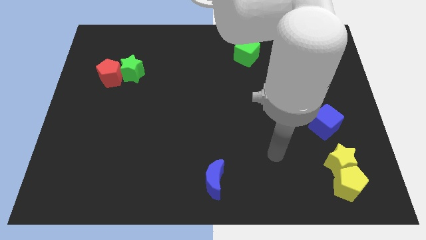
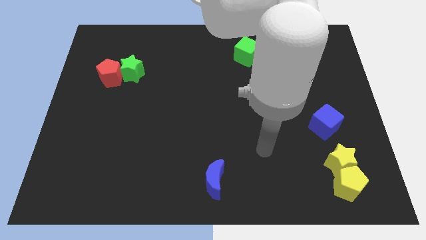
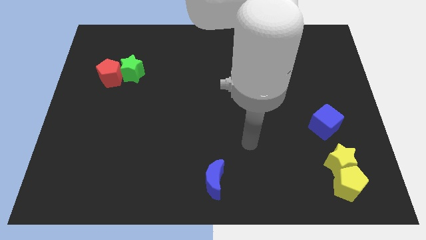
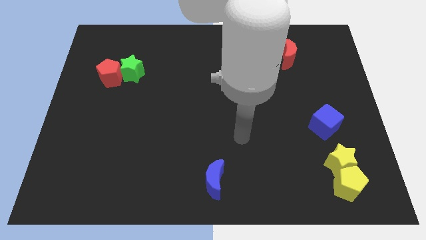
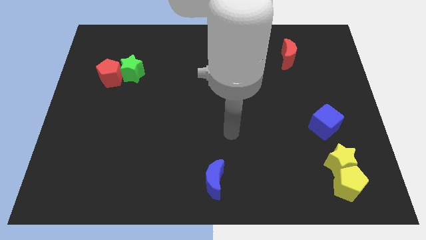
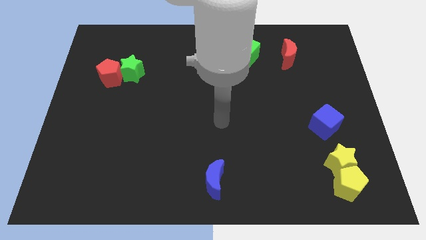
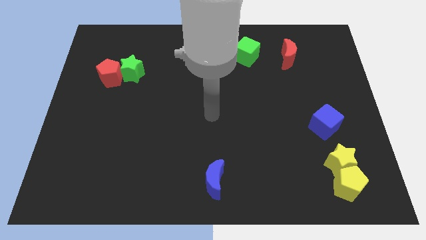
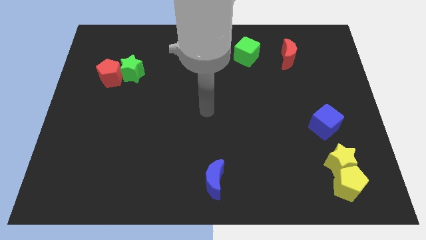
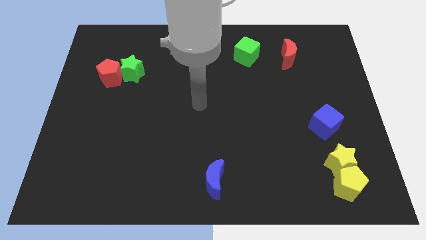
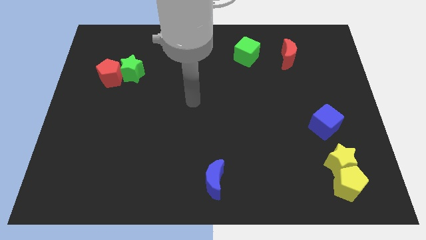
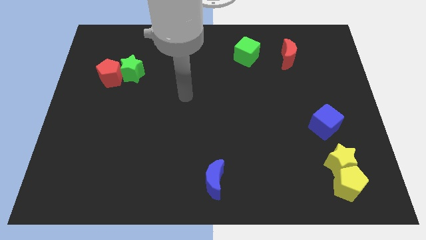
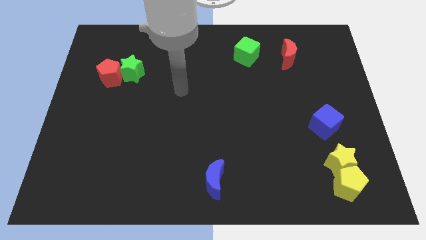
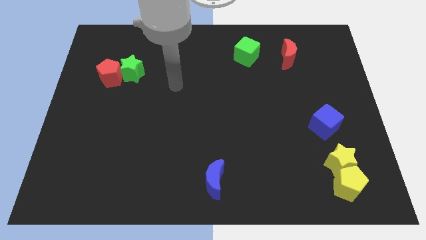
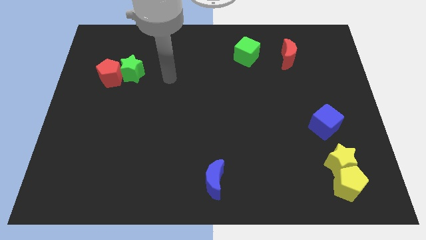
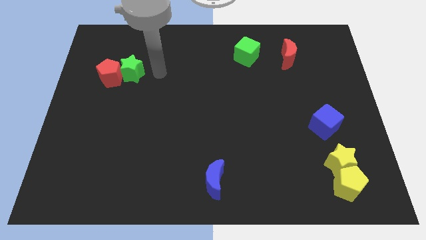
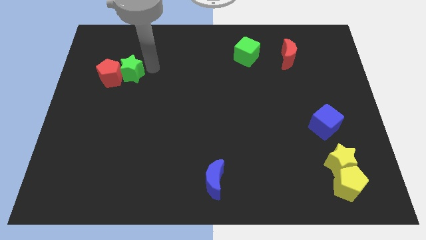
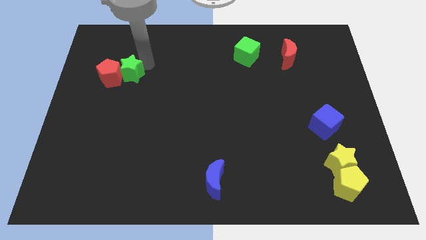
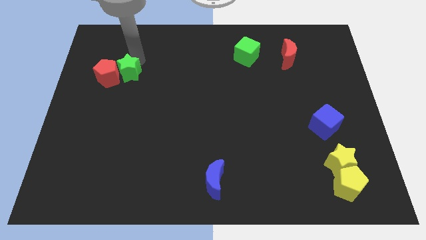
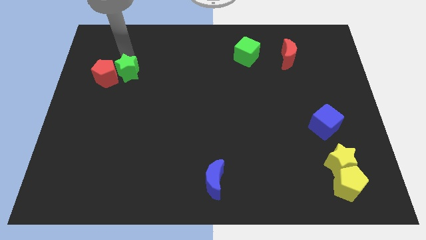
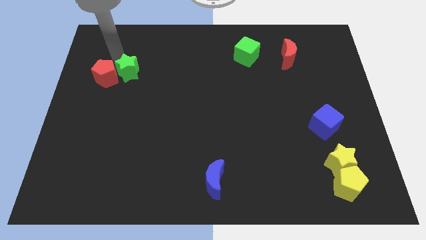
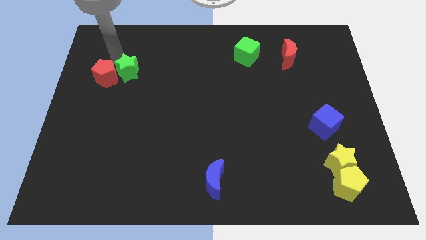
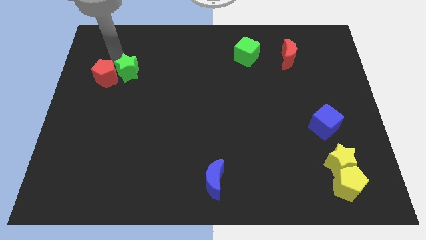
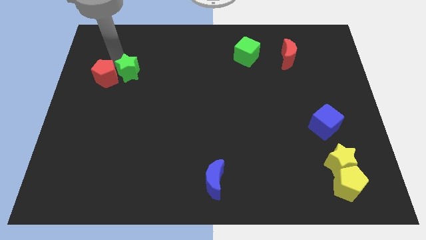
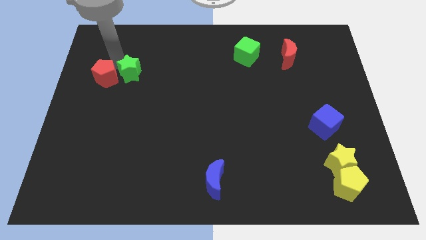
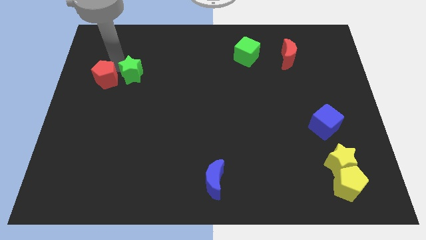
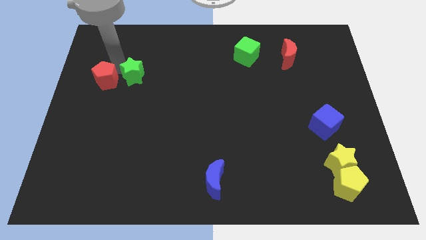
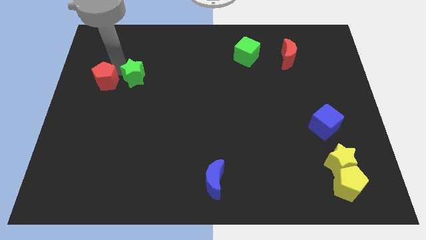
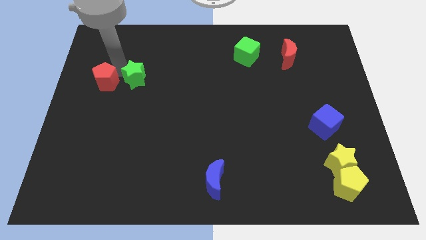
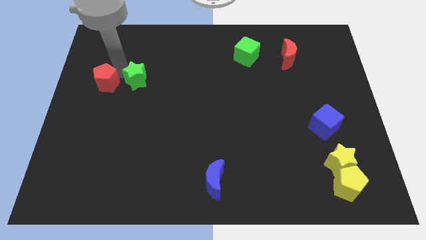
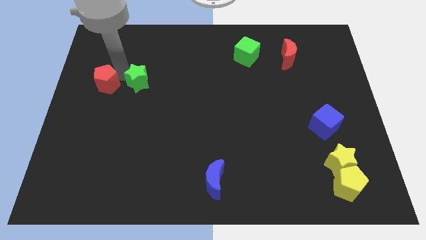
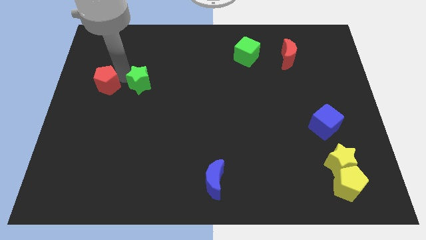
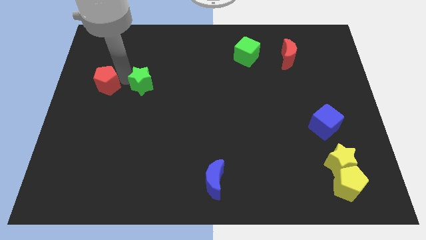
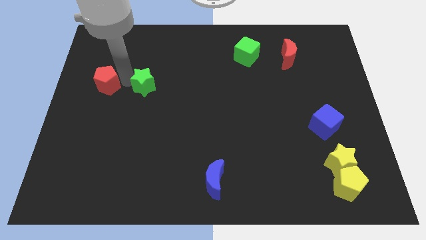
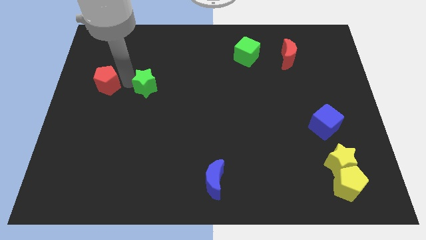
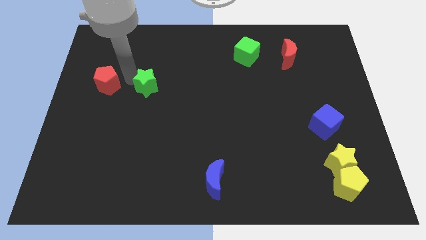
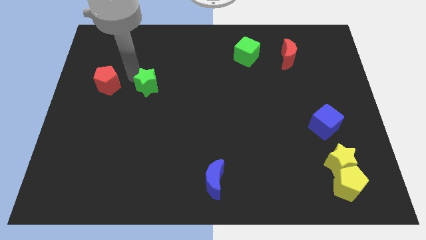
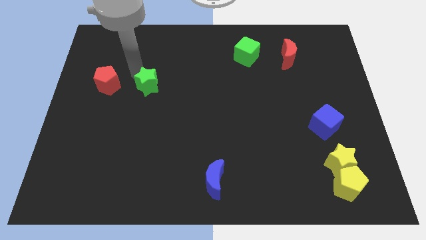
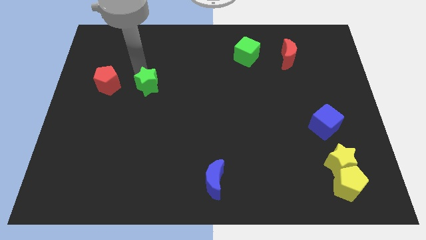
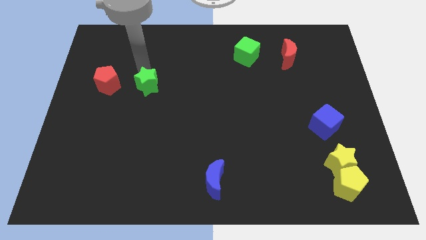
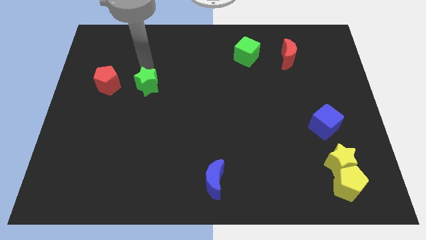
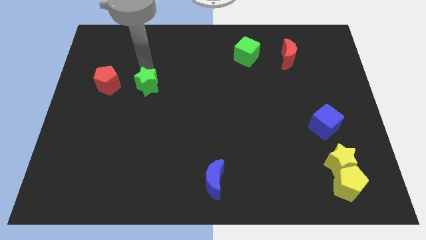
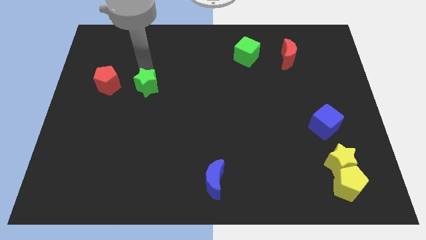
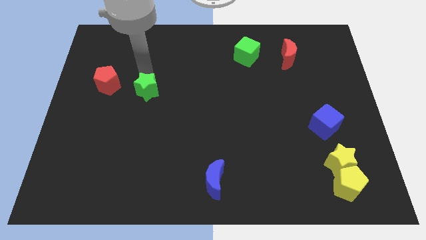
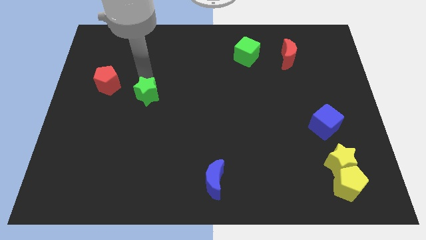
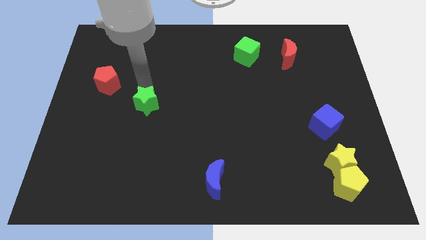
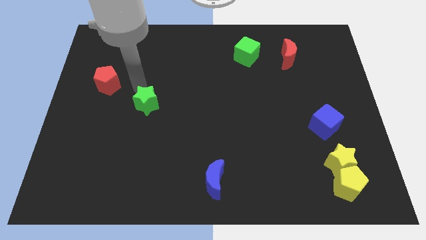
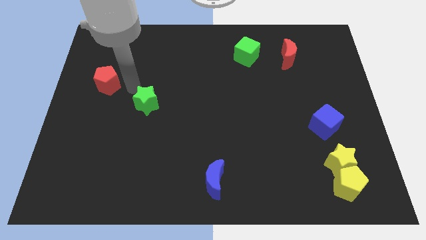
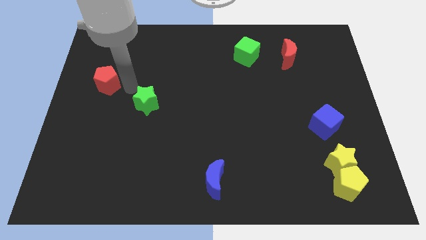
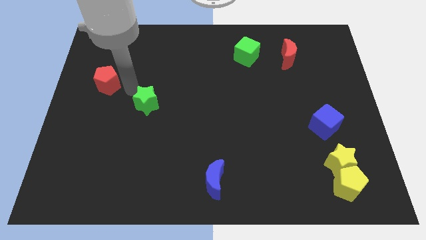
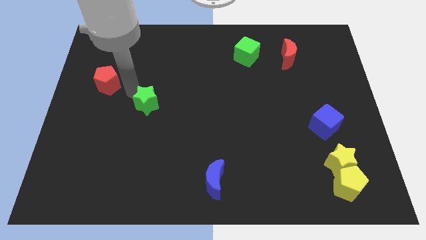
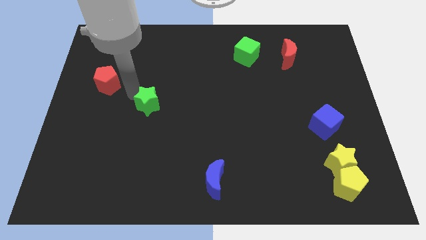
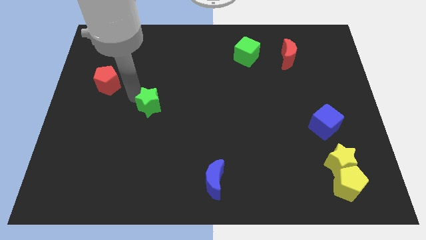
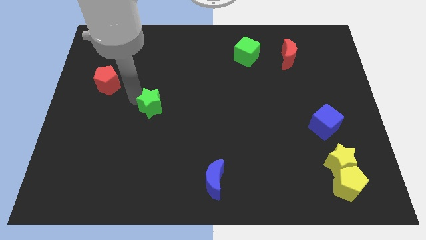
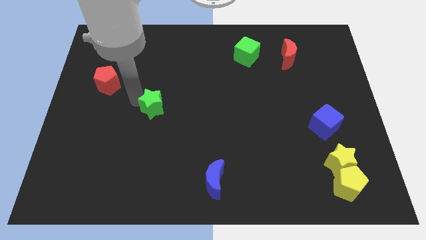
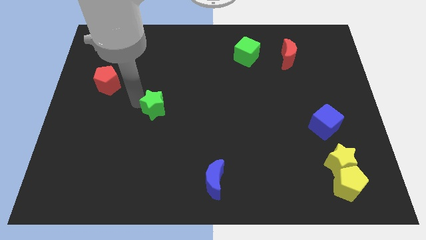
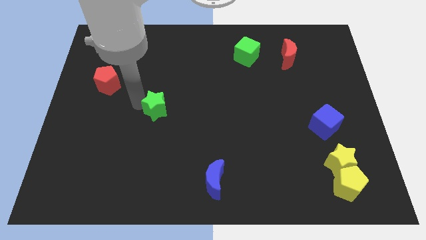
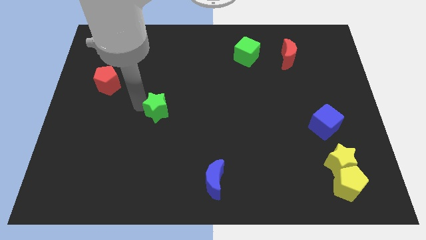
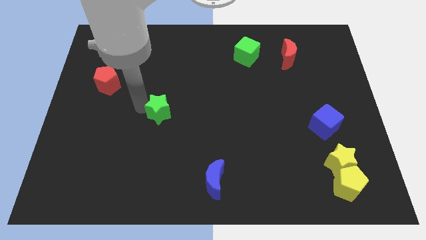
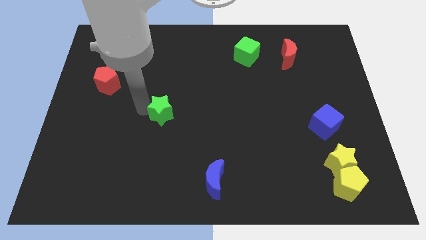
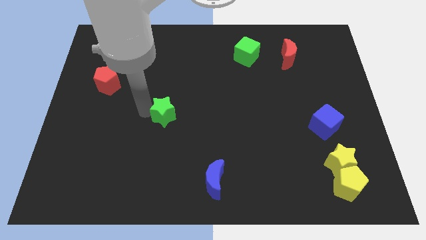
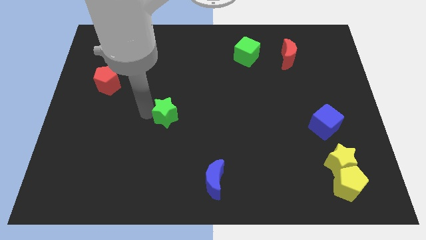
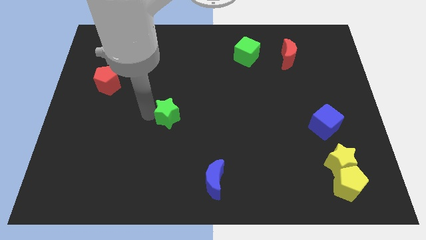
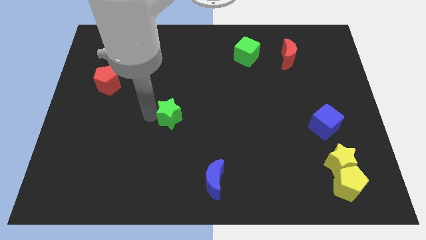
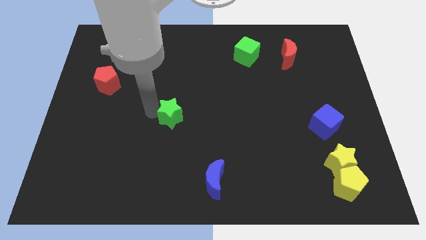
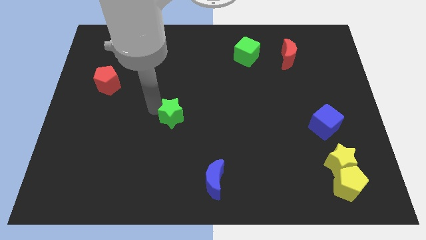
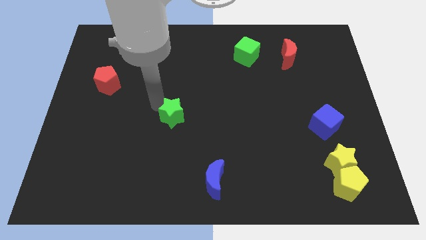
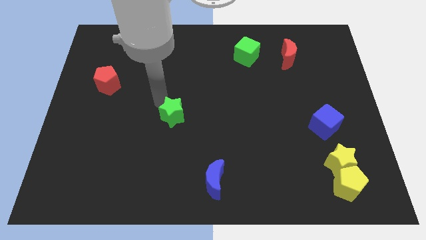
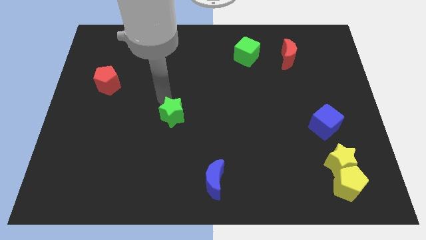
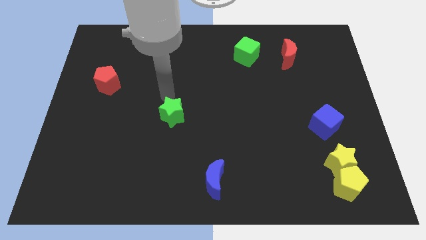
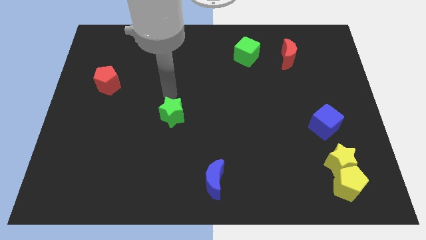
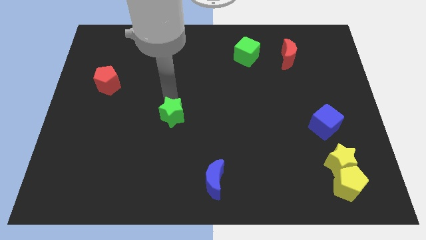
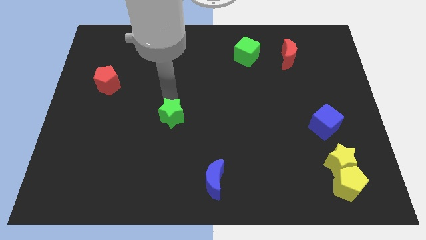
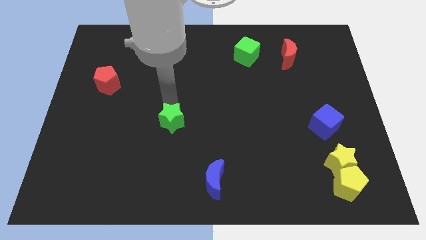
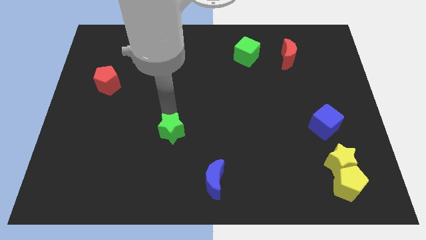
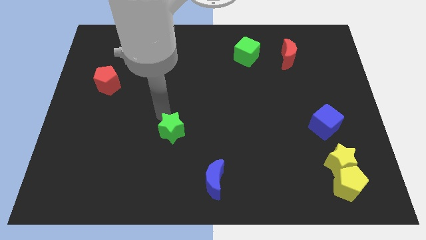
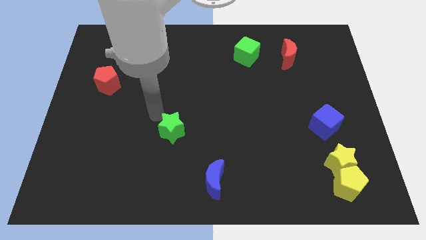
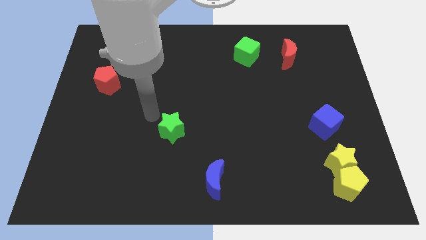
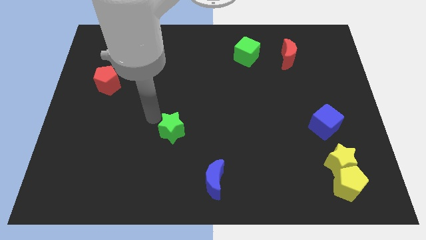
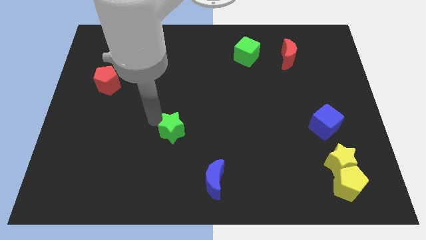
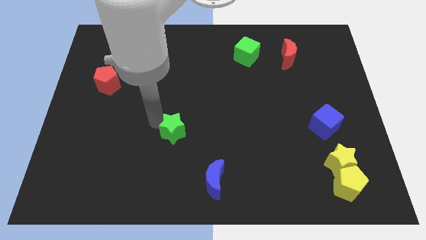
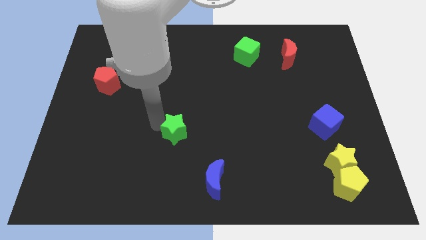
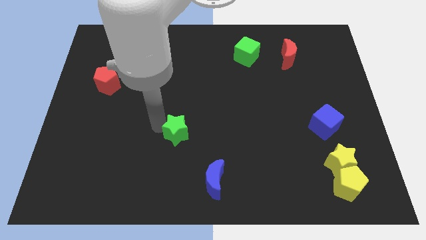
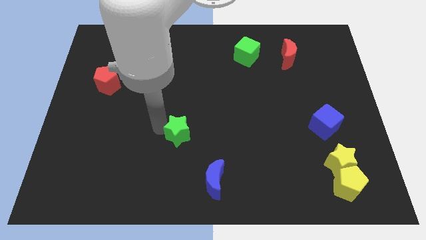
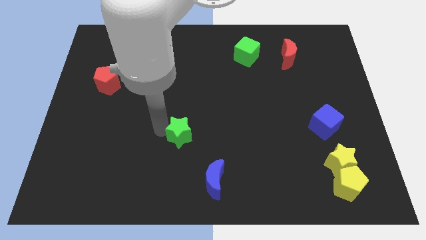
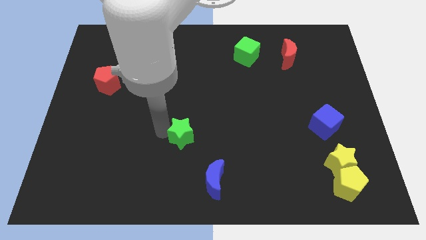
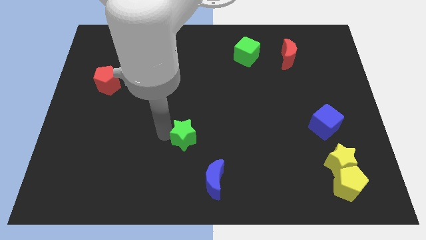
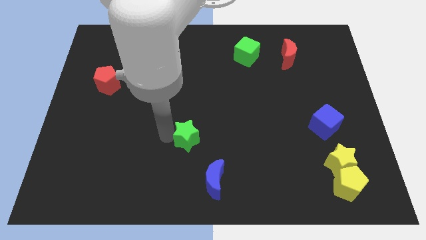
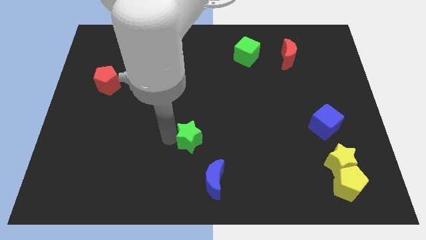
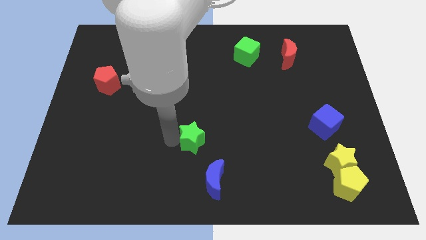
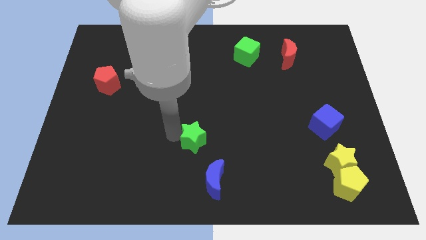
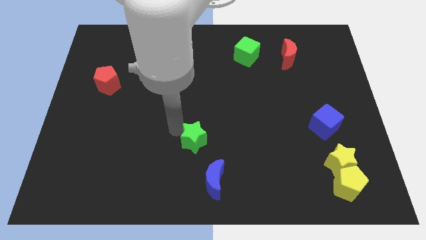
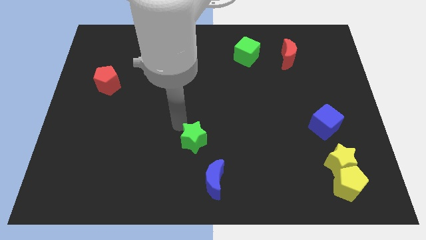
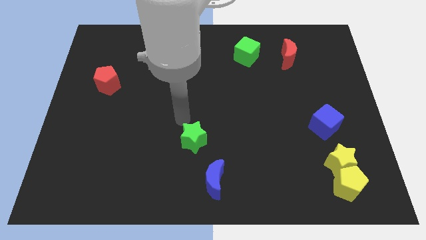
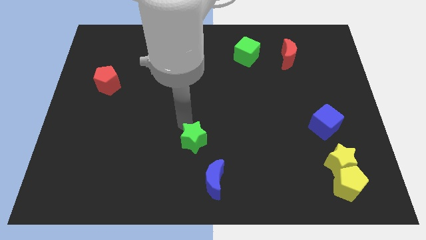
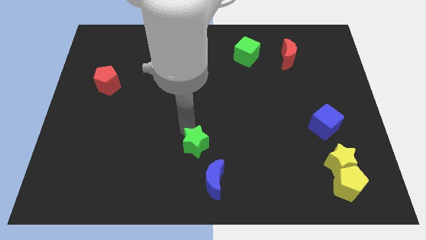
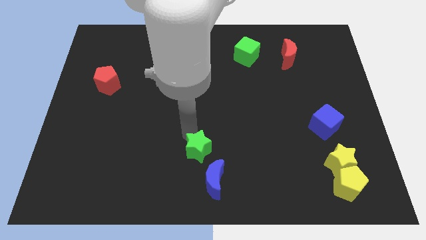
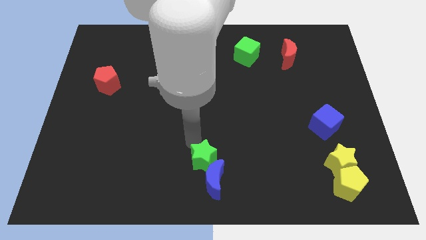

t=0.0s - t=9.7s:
move the green star close to the blue moon
